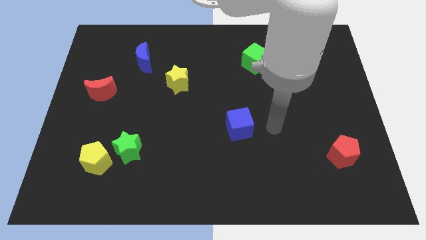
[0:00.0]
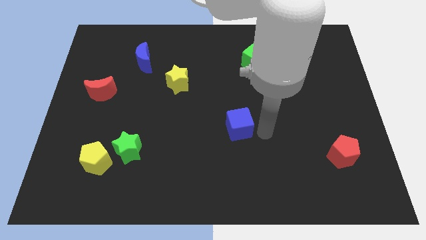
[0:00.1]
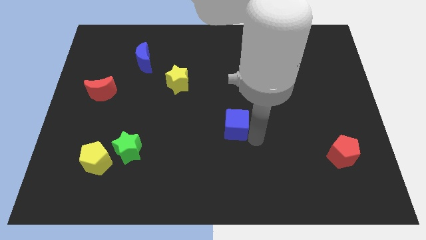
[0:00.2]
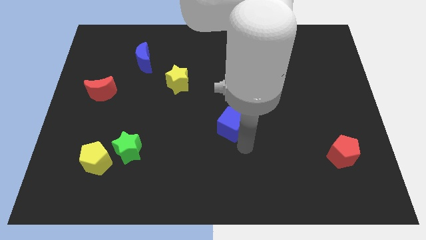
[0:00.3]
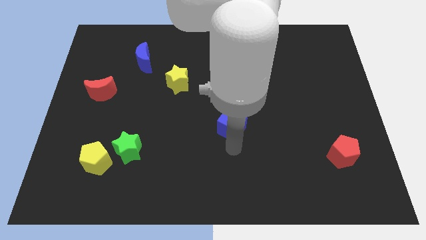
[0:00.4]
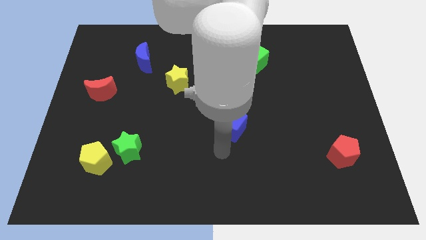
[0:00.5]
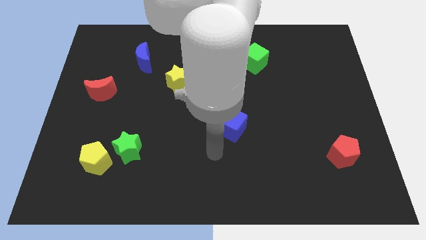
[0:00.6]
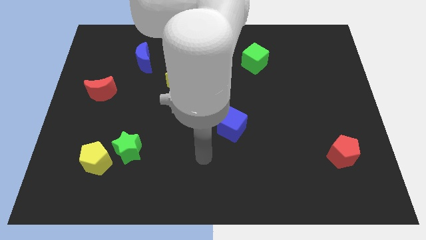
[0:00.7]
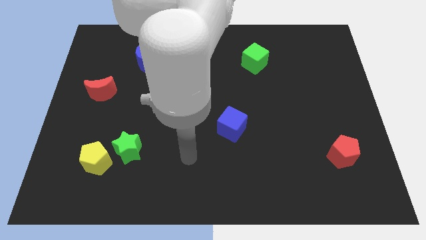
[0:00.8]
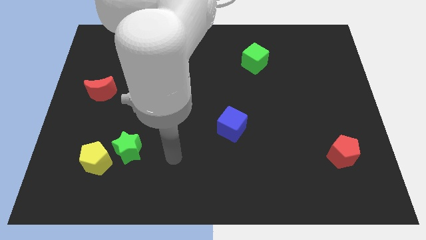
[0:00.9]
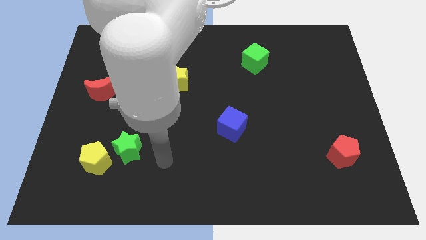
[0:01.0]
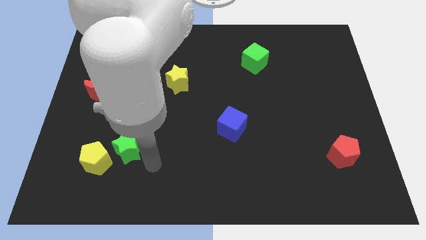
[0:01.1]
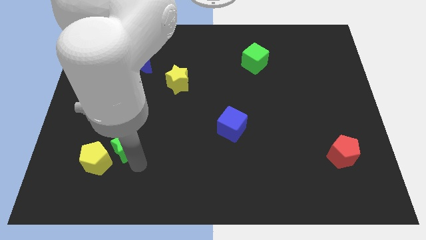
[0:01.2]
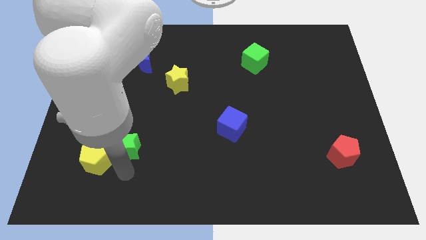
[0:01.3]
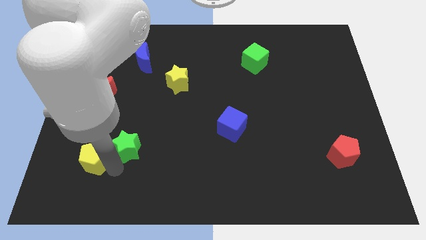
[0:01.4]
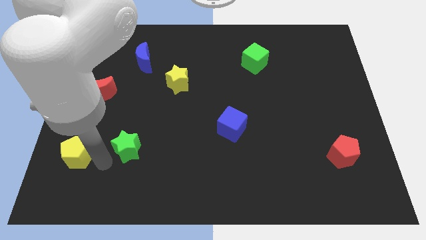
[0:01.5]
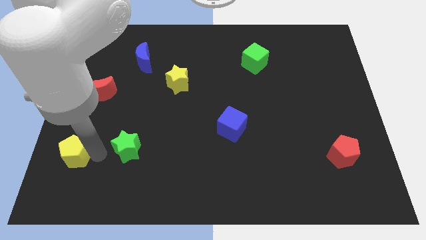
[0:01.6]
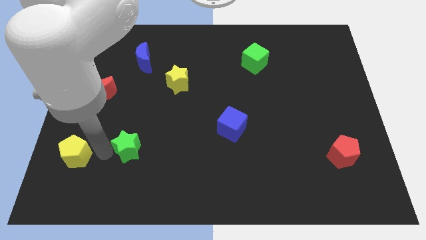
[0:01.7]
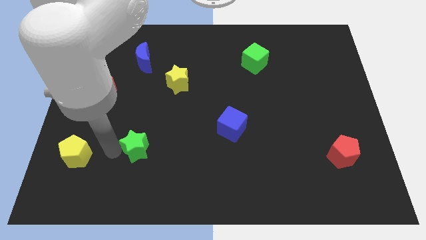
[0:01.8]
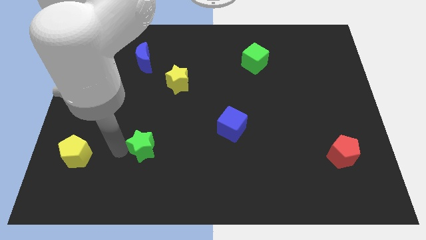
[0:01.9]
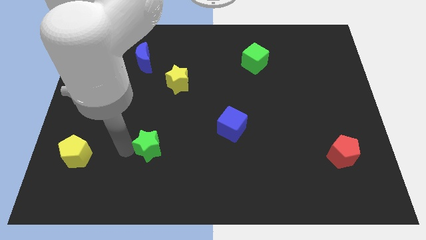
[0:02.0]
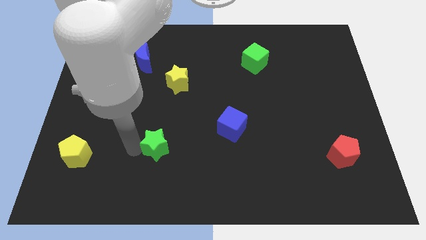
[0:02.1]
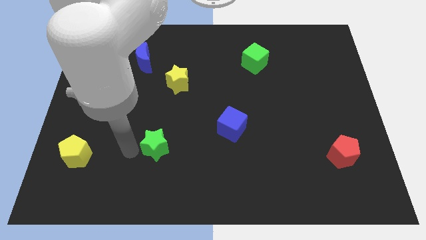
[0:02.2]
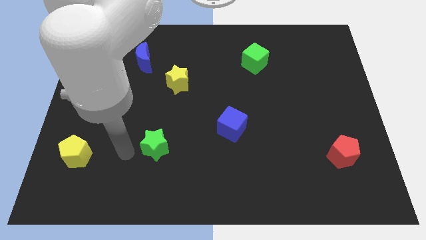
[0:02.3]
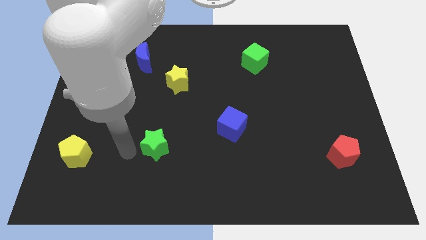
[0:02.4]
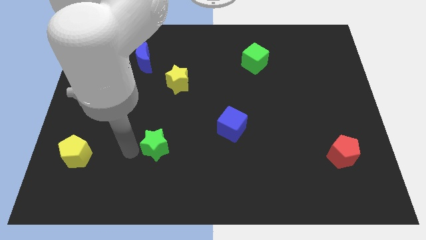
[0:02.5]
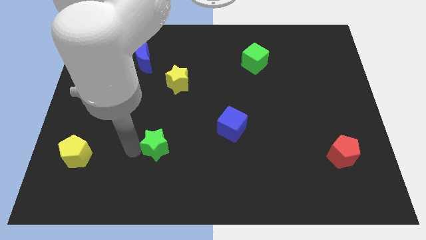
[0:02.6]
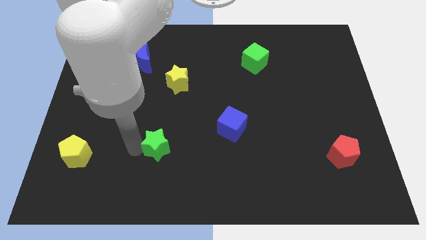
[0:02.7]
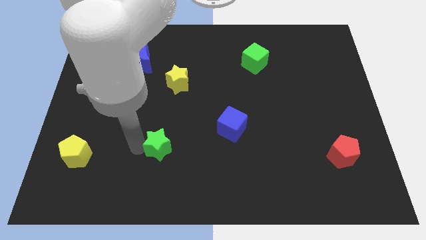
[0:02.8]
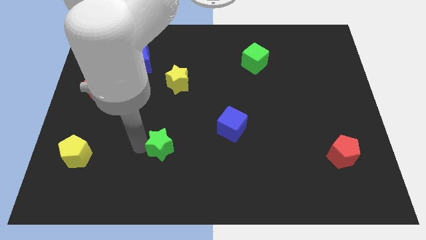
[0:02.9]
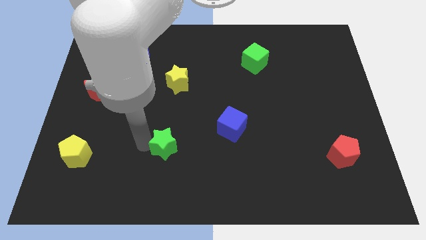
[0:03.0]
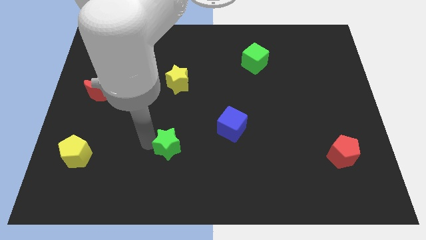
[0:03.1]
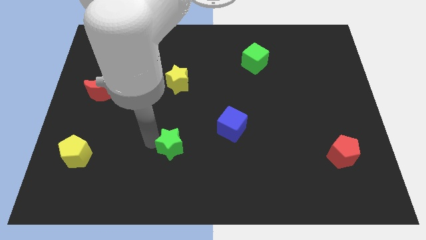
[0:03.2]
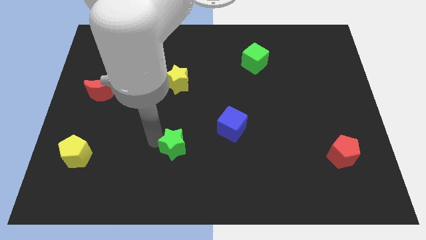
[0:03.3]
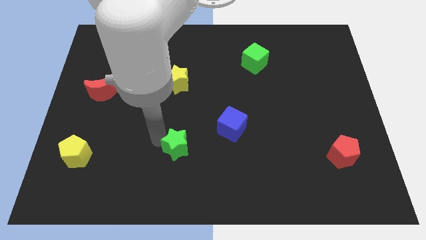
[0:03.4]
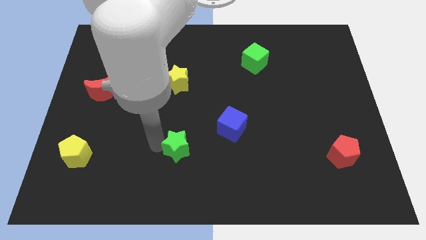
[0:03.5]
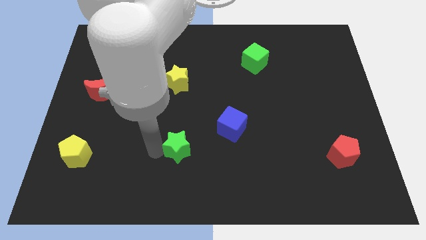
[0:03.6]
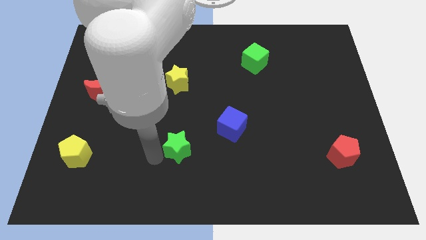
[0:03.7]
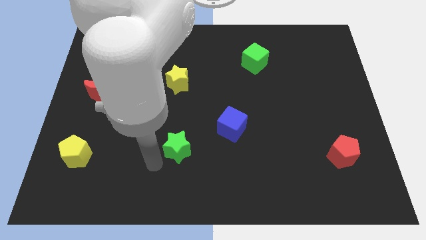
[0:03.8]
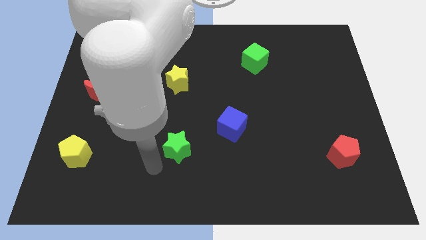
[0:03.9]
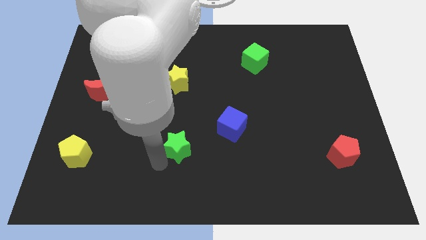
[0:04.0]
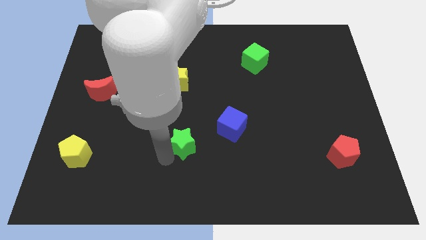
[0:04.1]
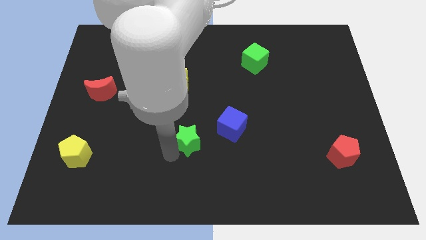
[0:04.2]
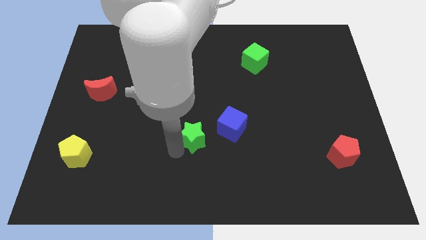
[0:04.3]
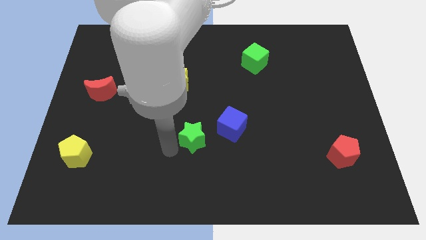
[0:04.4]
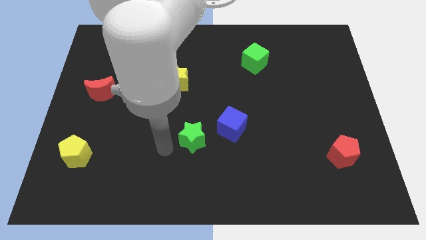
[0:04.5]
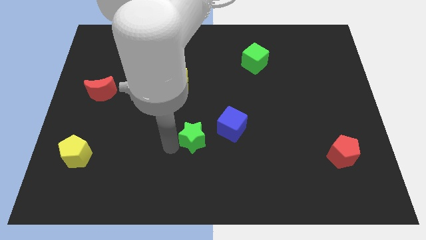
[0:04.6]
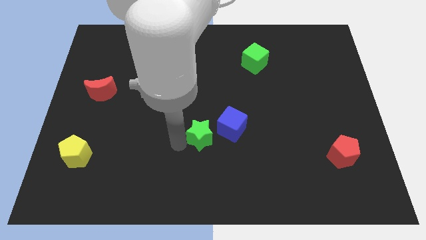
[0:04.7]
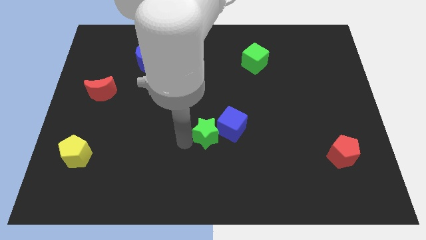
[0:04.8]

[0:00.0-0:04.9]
move the green star close to the blue cube

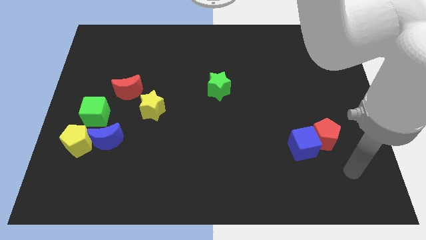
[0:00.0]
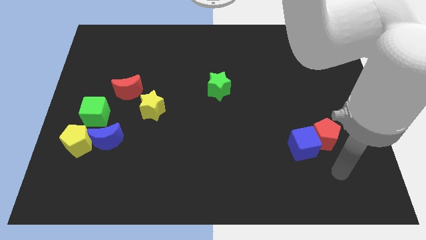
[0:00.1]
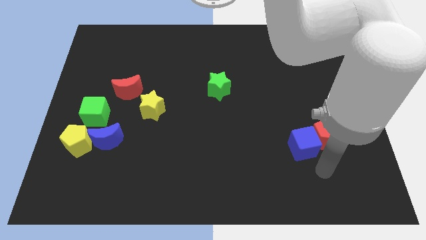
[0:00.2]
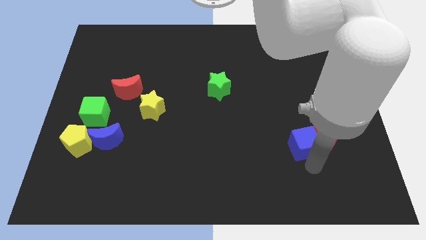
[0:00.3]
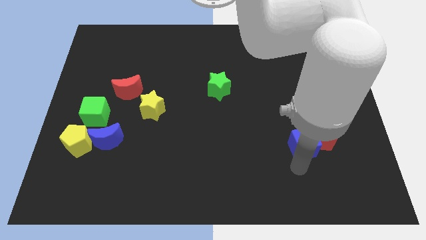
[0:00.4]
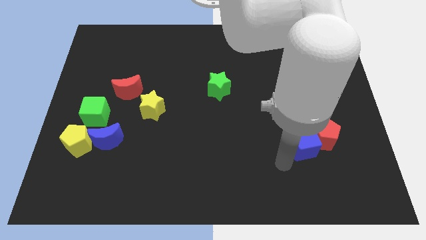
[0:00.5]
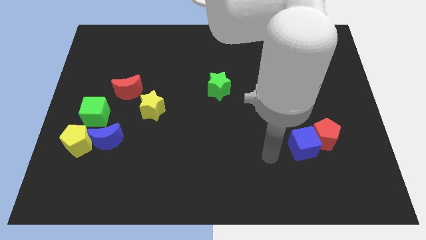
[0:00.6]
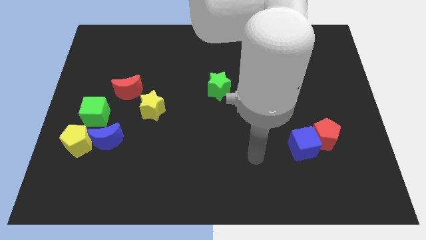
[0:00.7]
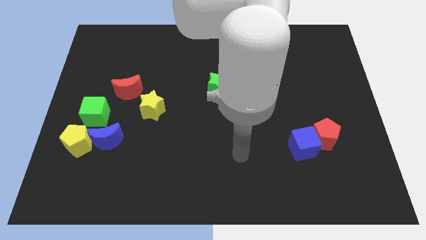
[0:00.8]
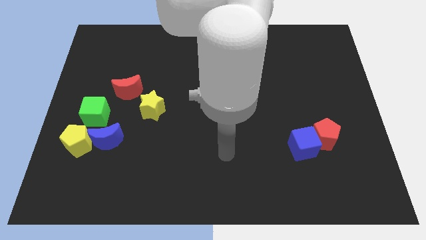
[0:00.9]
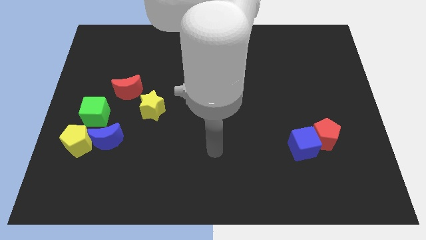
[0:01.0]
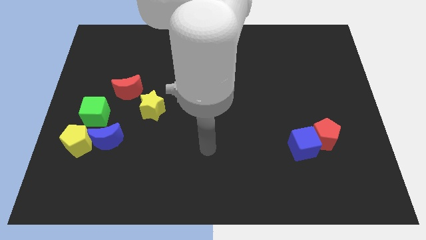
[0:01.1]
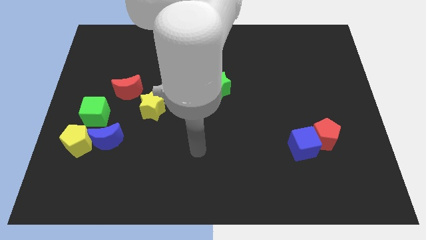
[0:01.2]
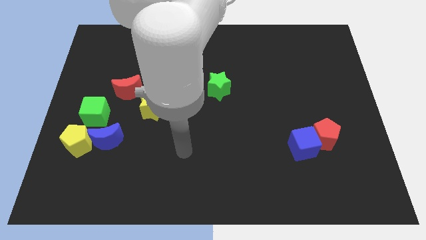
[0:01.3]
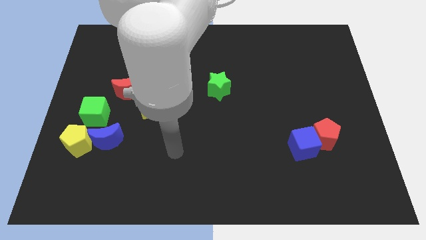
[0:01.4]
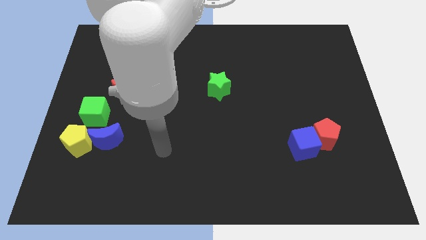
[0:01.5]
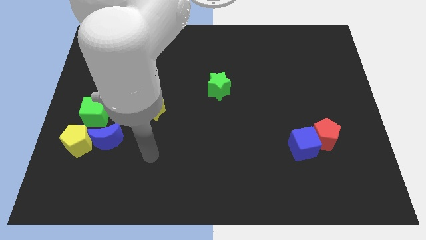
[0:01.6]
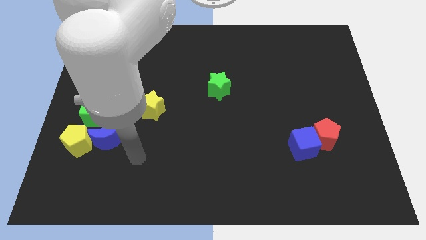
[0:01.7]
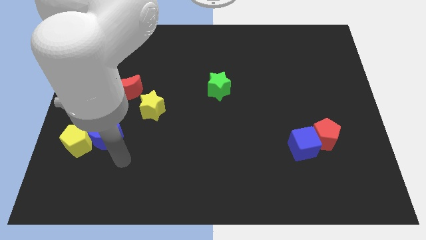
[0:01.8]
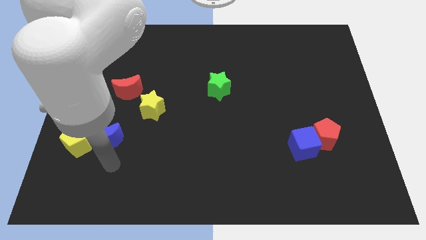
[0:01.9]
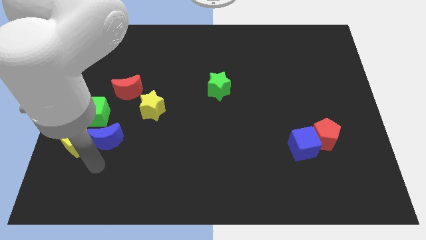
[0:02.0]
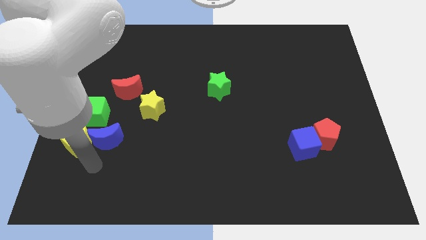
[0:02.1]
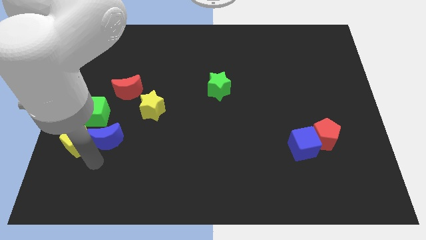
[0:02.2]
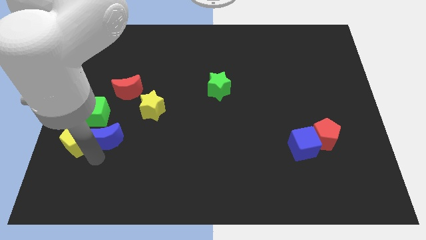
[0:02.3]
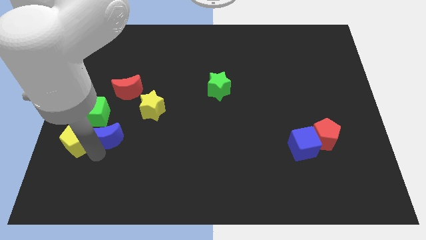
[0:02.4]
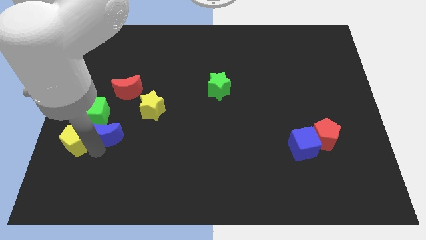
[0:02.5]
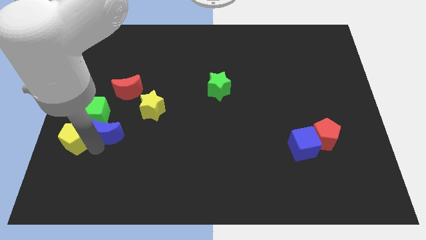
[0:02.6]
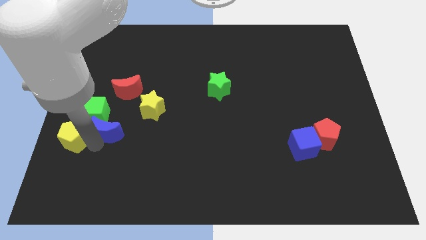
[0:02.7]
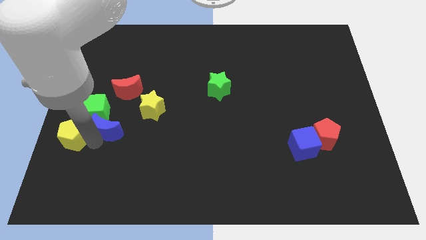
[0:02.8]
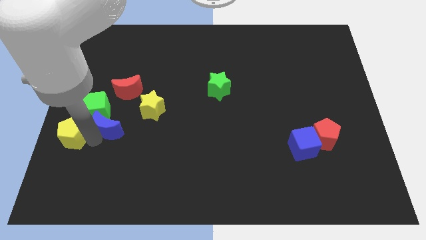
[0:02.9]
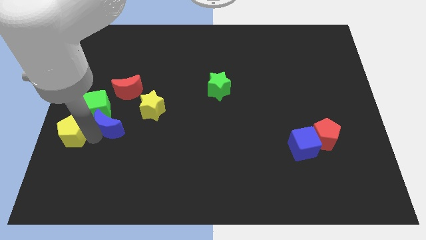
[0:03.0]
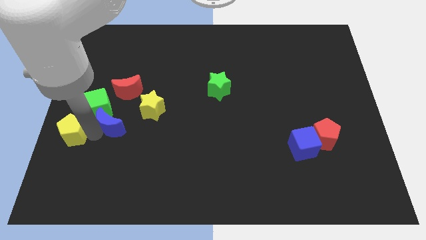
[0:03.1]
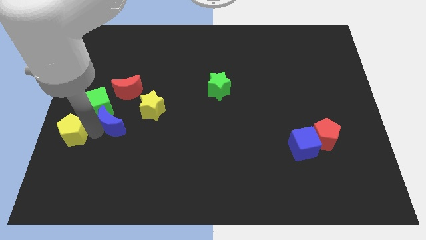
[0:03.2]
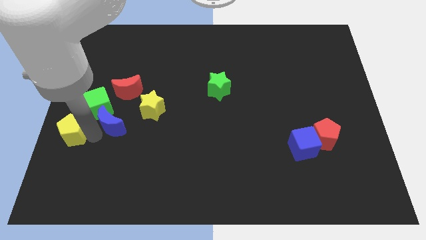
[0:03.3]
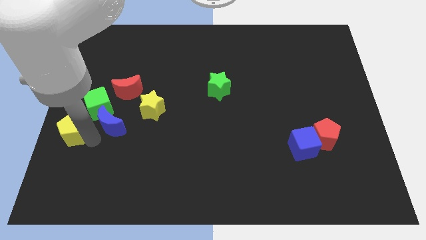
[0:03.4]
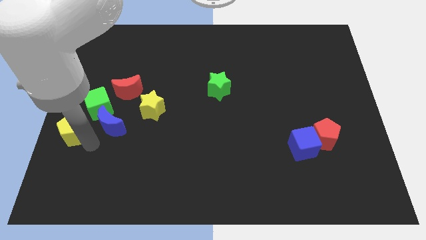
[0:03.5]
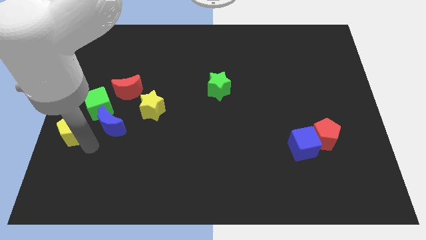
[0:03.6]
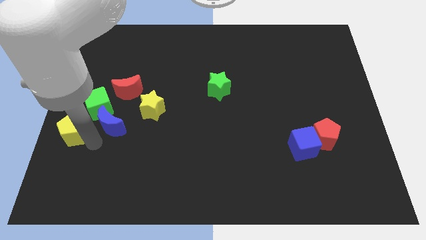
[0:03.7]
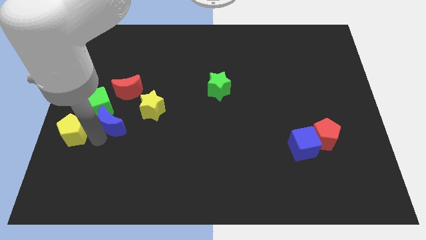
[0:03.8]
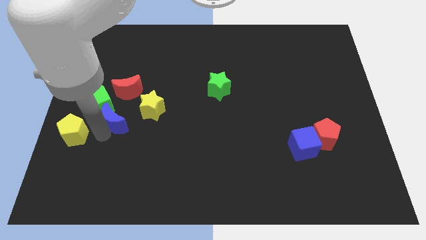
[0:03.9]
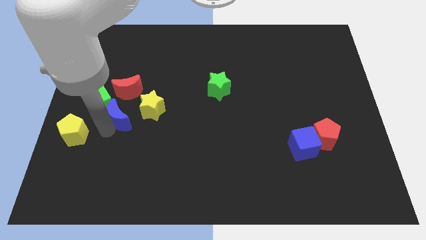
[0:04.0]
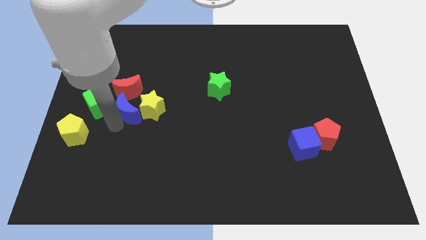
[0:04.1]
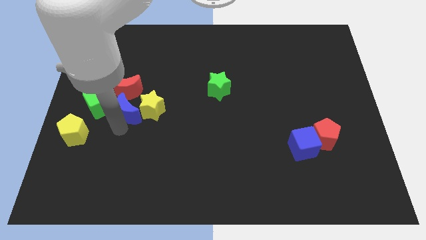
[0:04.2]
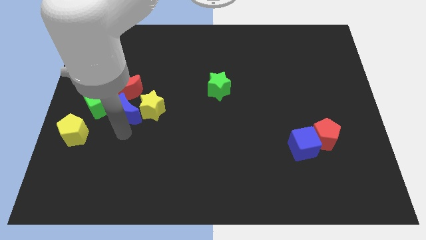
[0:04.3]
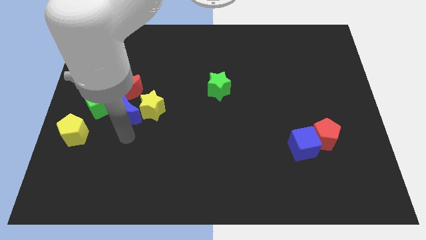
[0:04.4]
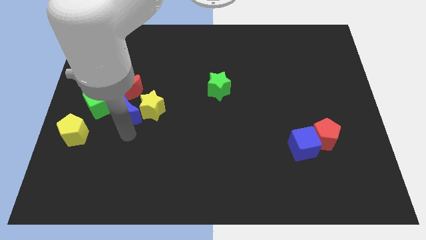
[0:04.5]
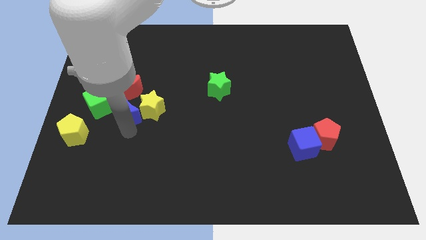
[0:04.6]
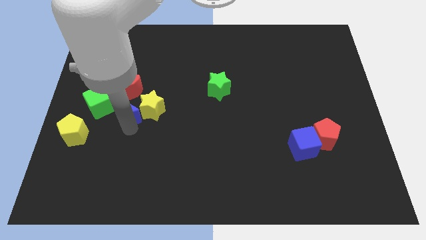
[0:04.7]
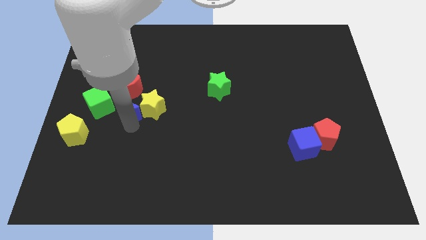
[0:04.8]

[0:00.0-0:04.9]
push the blue moon next to the red moon
